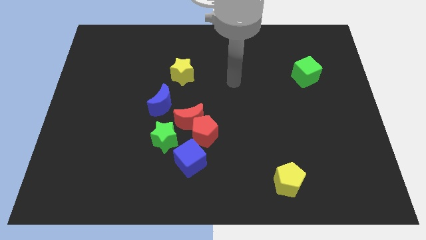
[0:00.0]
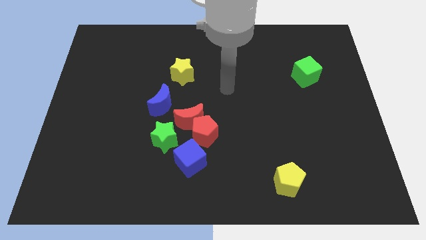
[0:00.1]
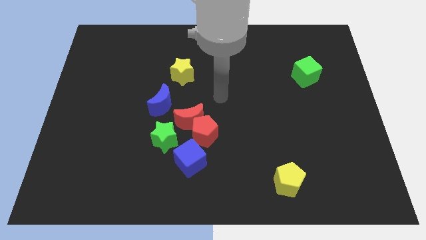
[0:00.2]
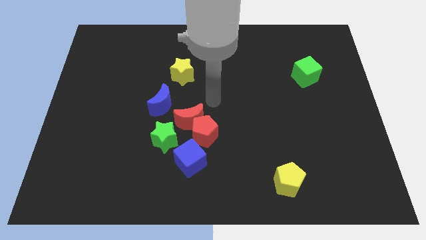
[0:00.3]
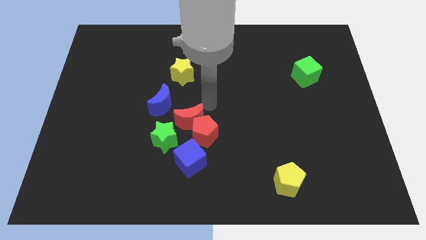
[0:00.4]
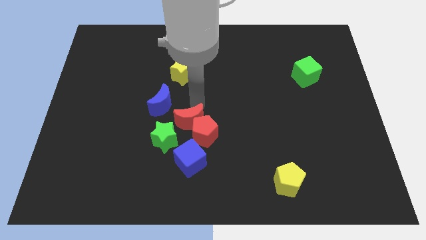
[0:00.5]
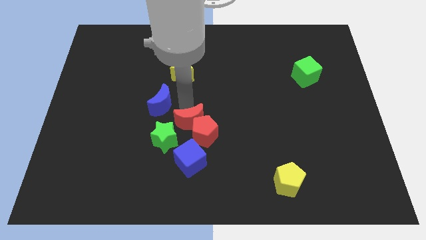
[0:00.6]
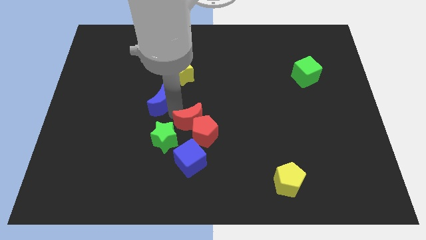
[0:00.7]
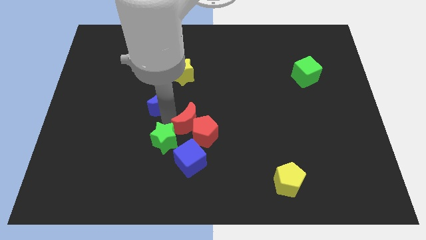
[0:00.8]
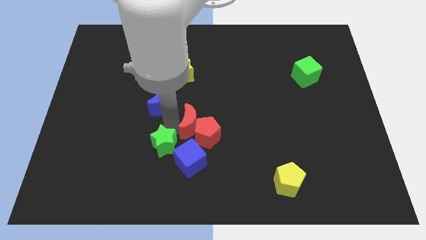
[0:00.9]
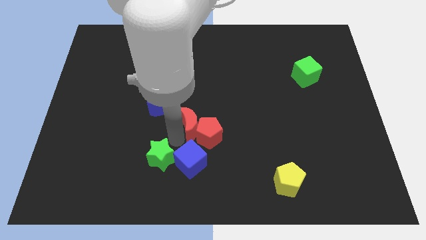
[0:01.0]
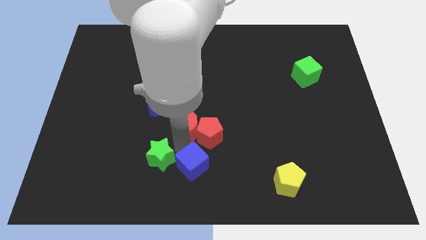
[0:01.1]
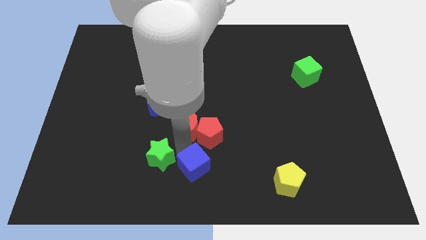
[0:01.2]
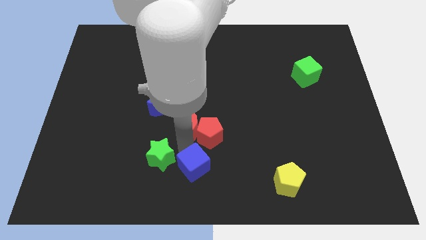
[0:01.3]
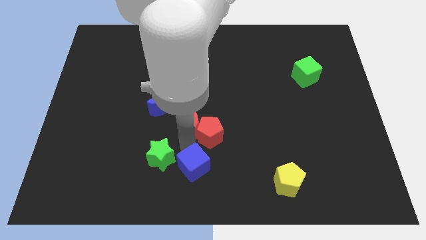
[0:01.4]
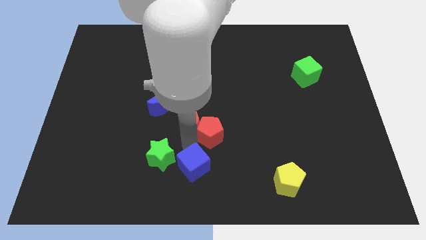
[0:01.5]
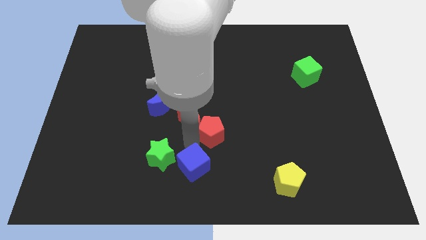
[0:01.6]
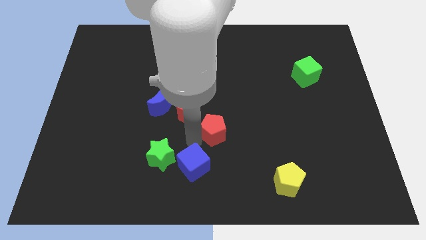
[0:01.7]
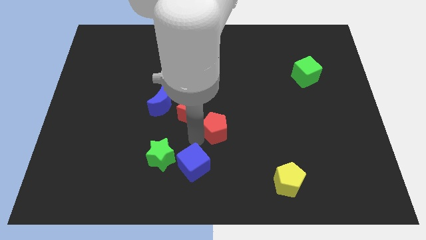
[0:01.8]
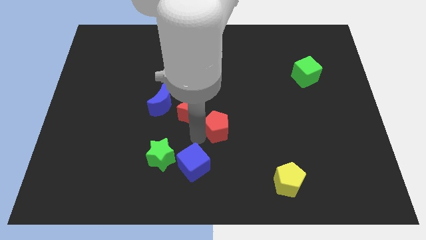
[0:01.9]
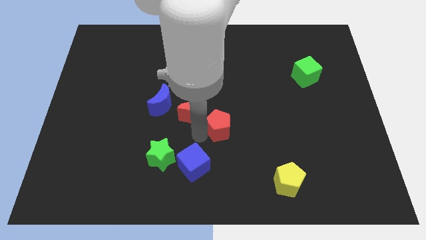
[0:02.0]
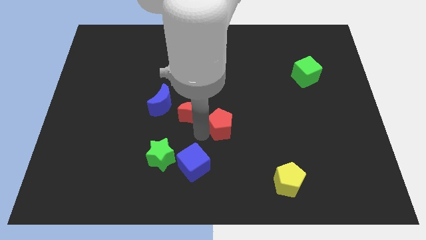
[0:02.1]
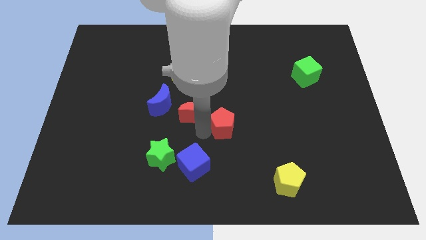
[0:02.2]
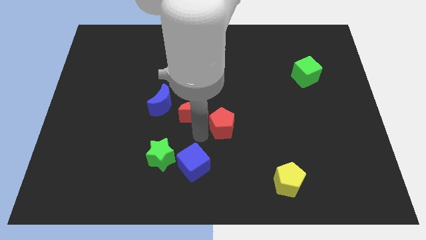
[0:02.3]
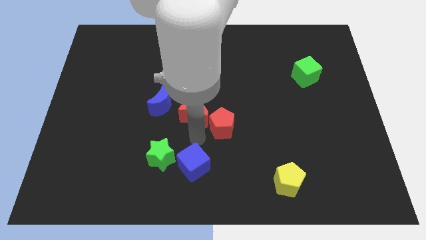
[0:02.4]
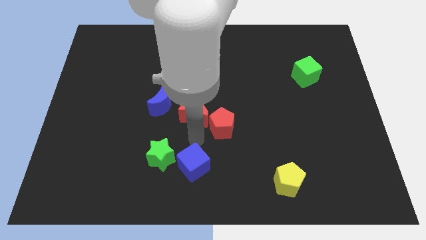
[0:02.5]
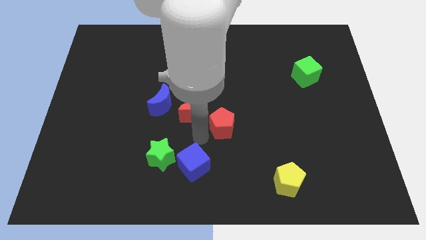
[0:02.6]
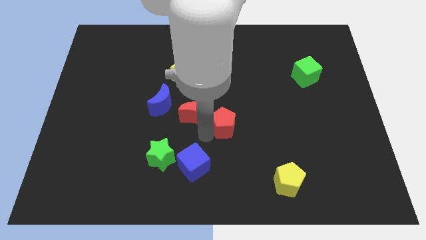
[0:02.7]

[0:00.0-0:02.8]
pull the red pentagon apart from the group of blocks

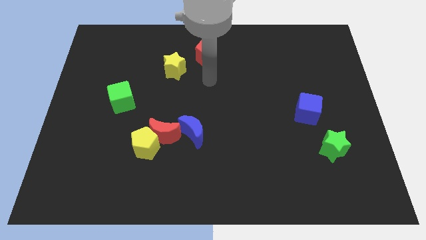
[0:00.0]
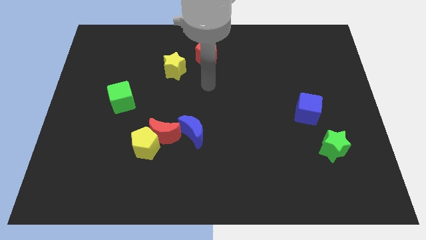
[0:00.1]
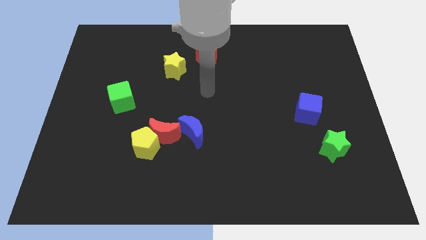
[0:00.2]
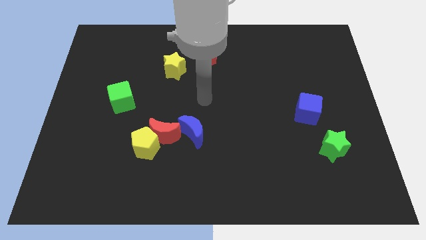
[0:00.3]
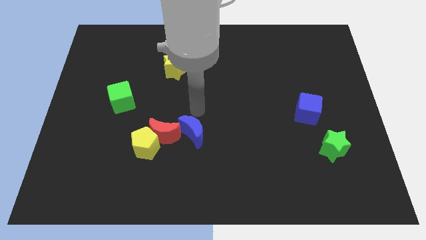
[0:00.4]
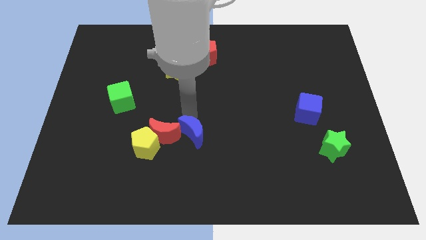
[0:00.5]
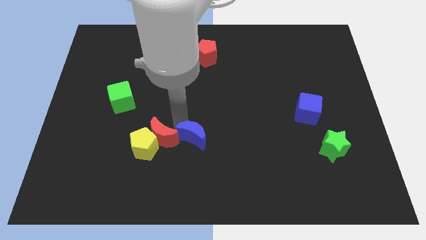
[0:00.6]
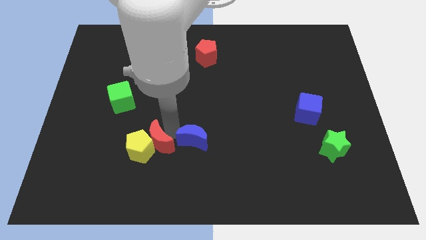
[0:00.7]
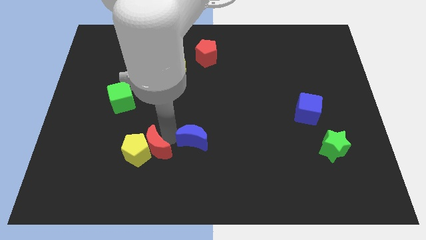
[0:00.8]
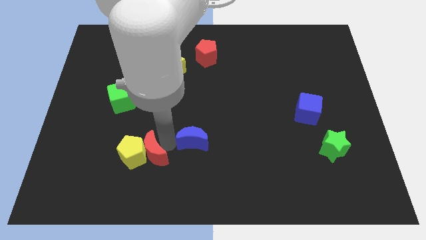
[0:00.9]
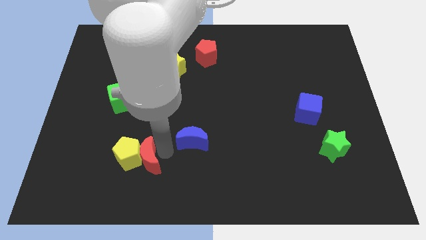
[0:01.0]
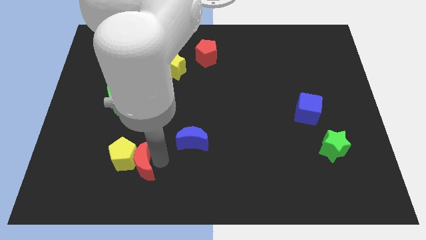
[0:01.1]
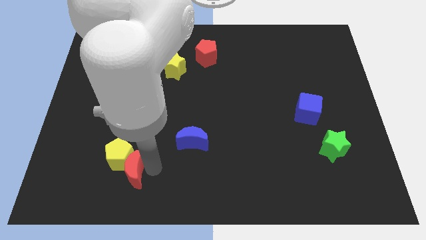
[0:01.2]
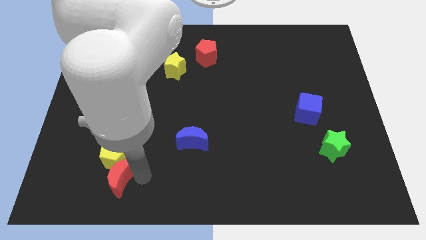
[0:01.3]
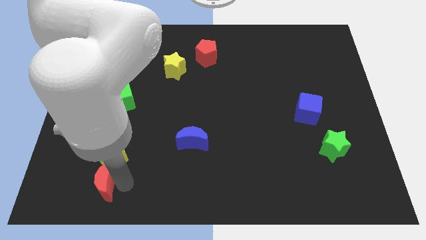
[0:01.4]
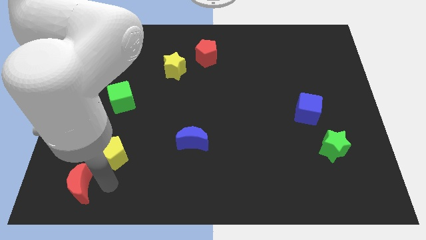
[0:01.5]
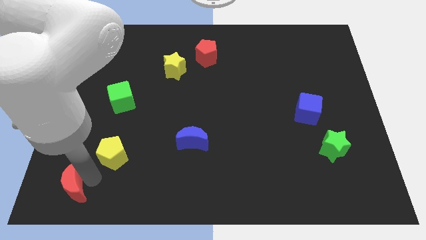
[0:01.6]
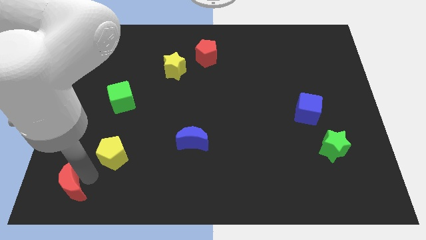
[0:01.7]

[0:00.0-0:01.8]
move the yellow pentagon away from the red moon

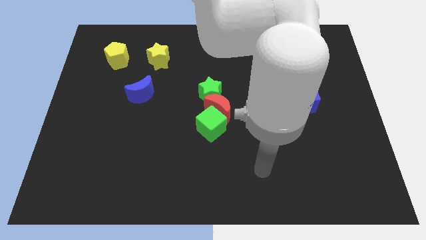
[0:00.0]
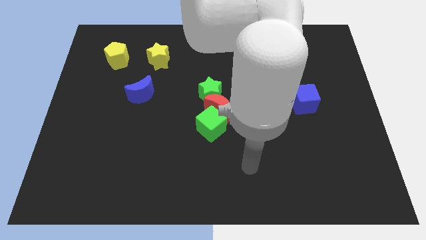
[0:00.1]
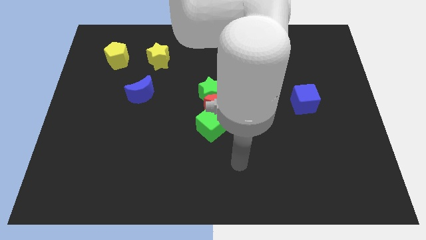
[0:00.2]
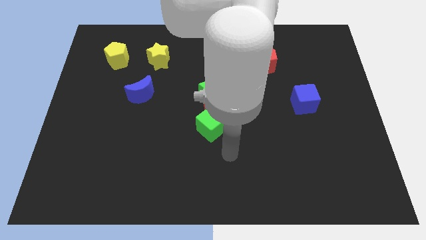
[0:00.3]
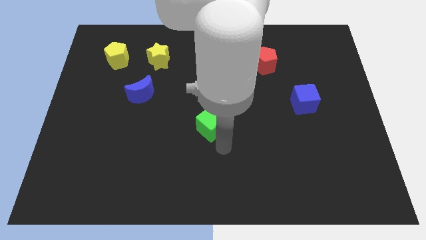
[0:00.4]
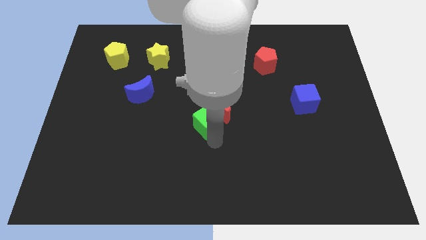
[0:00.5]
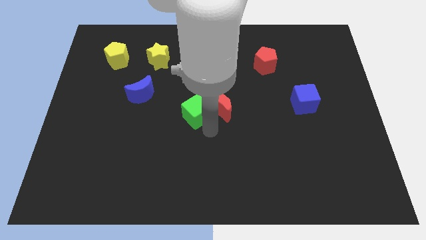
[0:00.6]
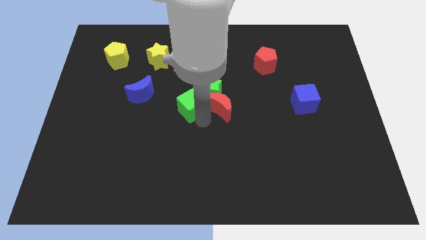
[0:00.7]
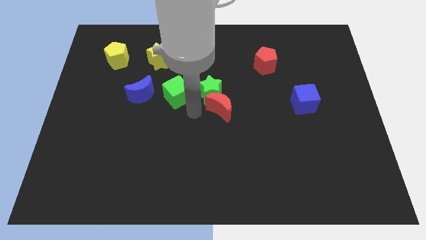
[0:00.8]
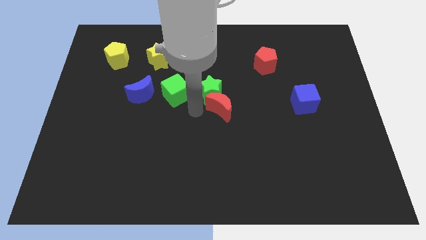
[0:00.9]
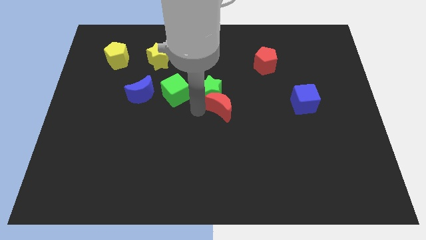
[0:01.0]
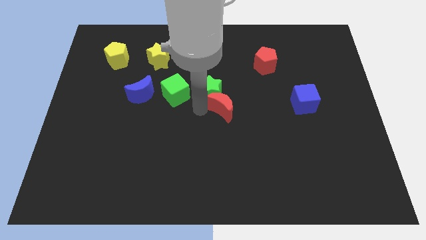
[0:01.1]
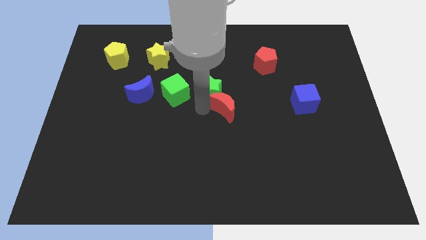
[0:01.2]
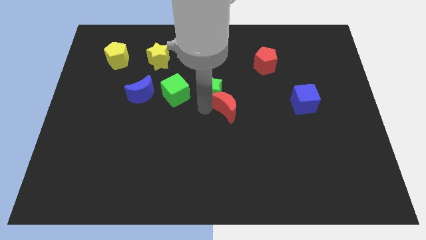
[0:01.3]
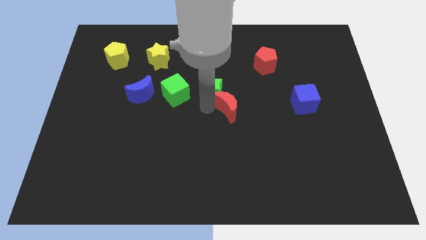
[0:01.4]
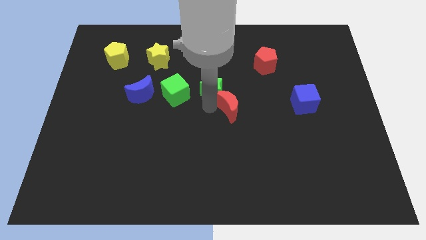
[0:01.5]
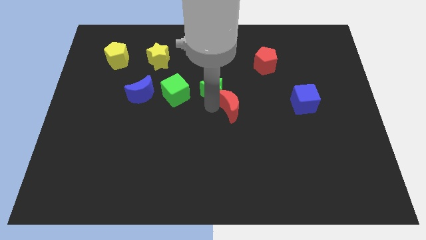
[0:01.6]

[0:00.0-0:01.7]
move the red moon away from the green cube and green star

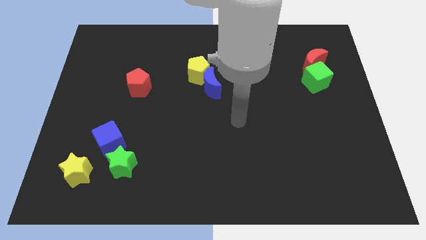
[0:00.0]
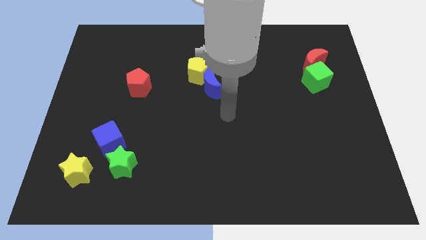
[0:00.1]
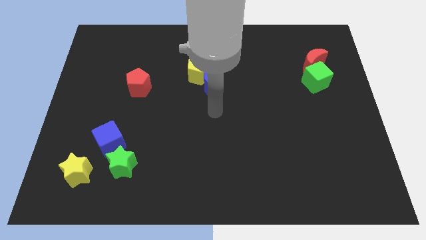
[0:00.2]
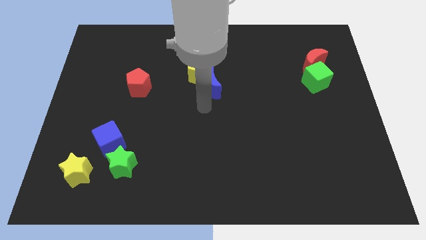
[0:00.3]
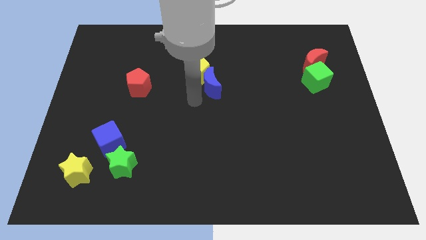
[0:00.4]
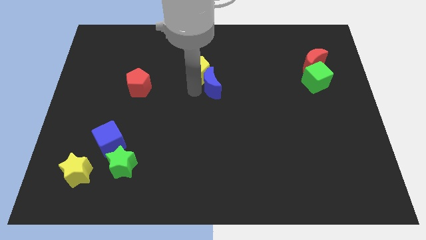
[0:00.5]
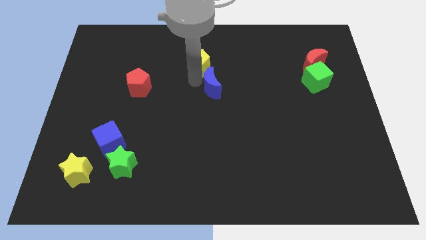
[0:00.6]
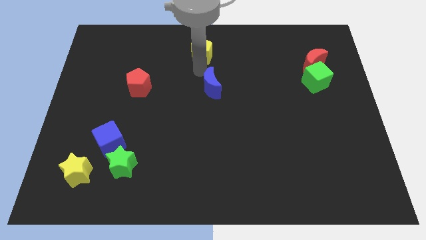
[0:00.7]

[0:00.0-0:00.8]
move the blue moon away from the yellow pentagon

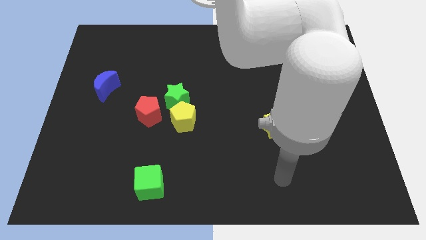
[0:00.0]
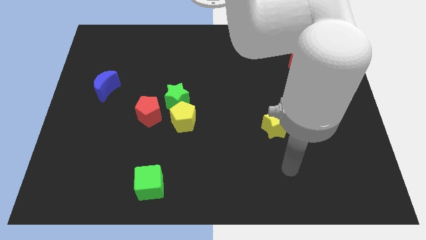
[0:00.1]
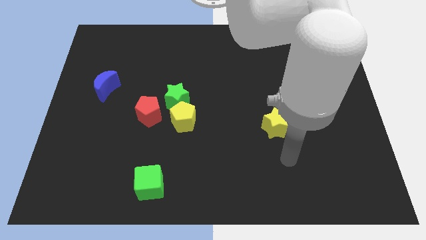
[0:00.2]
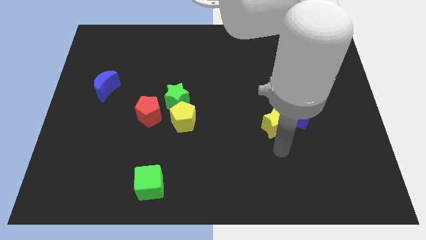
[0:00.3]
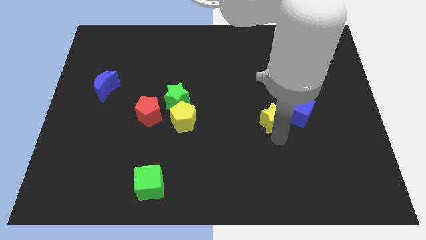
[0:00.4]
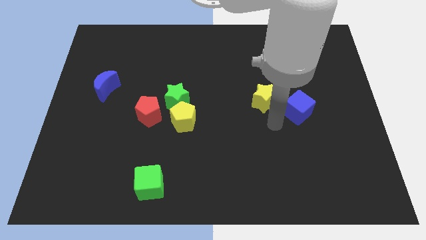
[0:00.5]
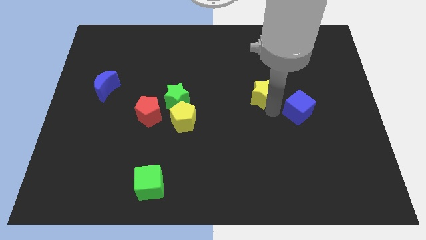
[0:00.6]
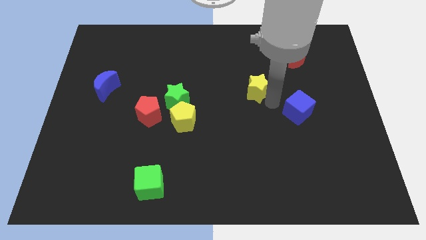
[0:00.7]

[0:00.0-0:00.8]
separate the blue cube from the yellow star

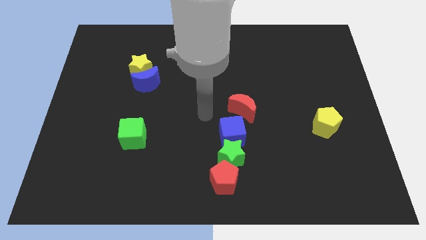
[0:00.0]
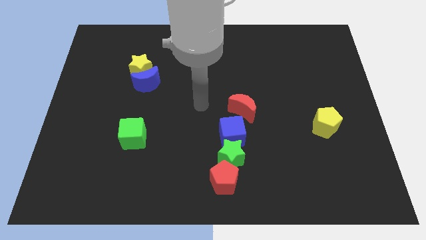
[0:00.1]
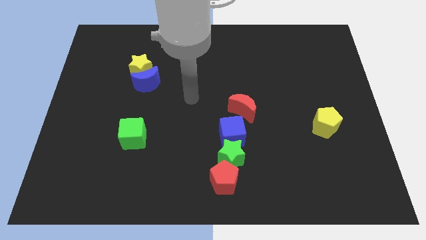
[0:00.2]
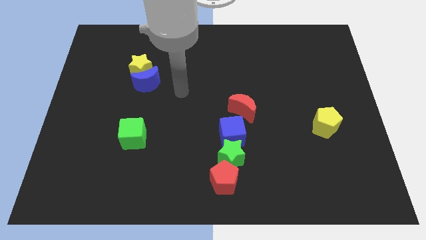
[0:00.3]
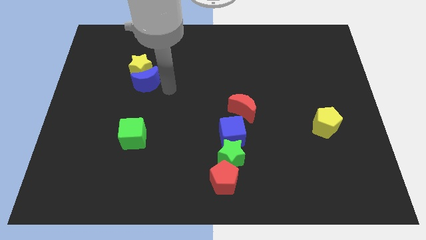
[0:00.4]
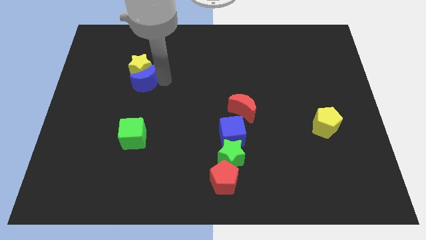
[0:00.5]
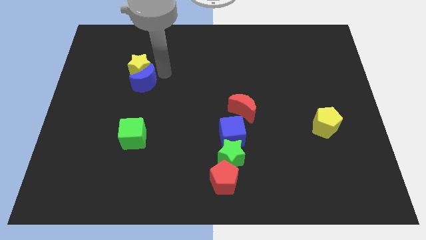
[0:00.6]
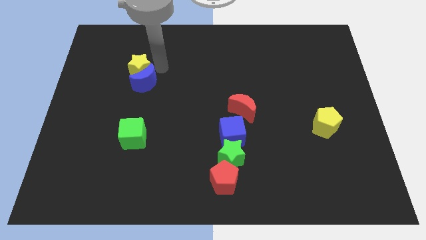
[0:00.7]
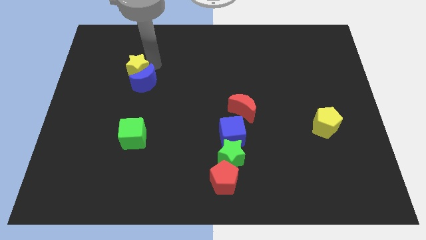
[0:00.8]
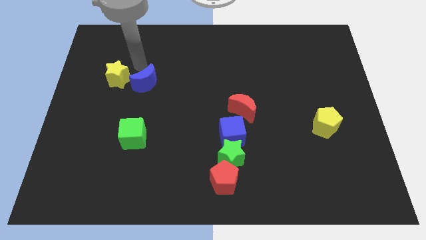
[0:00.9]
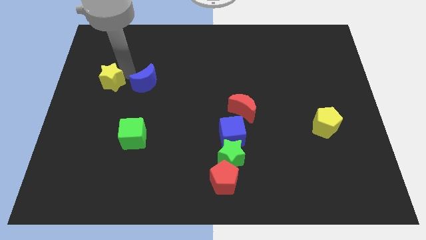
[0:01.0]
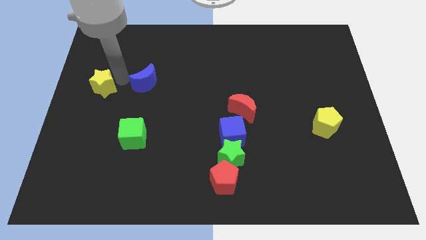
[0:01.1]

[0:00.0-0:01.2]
pull the blue moon apart from the yellow star

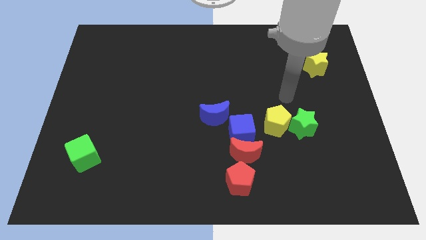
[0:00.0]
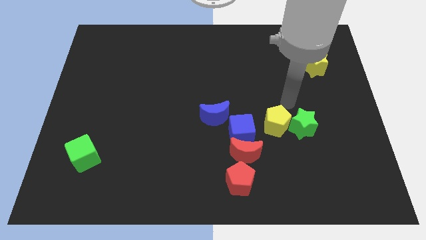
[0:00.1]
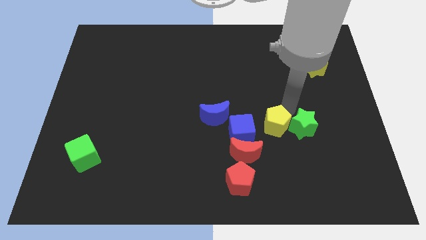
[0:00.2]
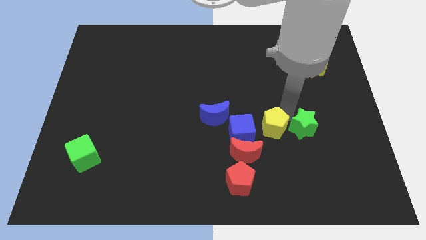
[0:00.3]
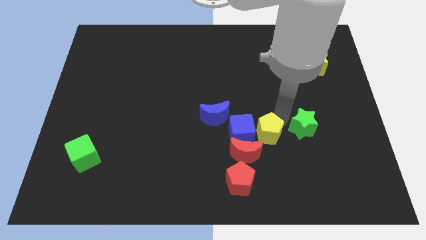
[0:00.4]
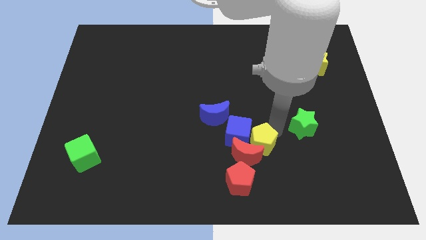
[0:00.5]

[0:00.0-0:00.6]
separate the green star from the yellow pentagon
